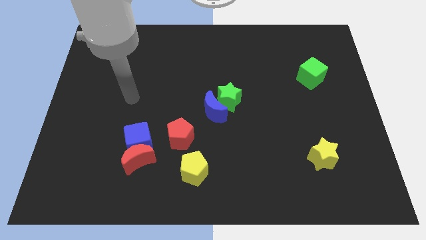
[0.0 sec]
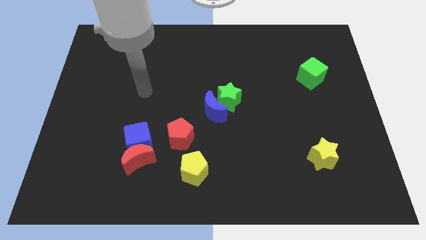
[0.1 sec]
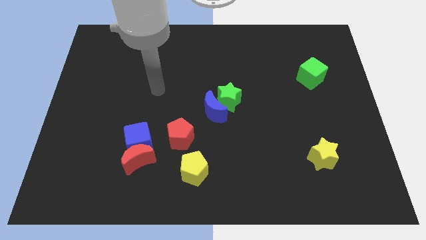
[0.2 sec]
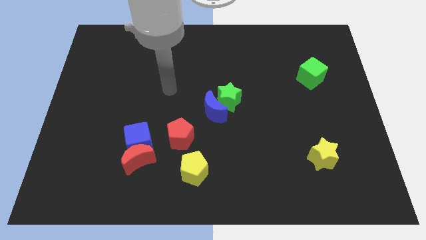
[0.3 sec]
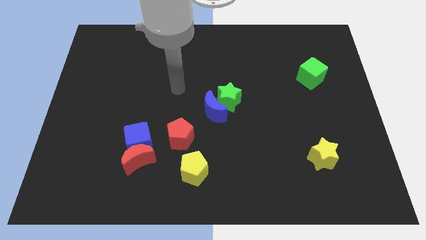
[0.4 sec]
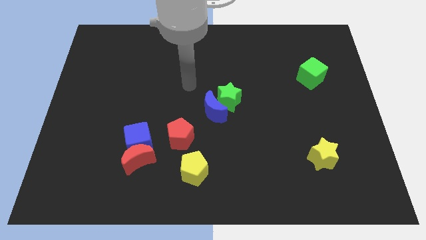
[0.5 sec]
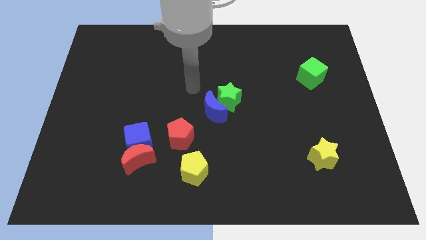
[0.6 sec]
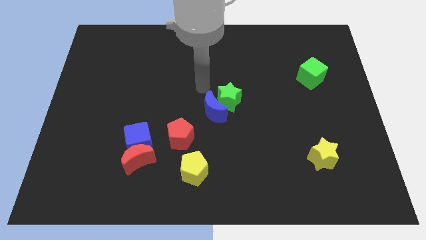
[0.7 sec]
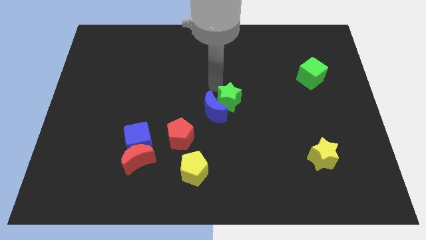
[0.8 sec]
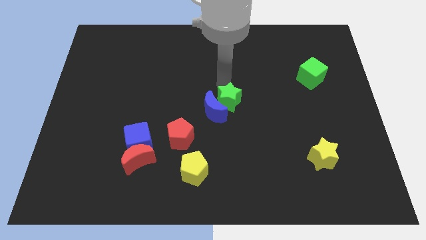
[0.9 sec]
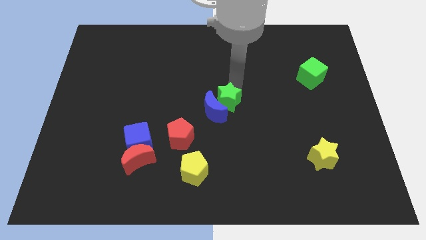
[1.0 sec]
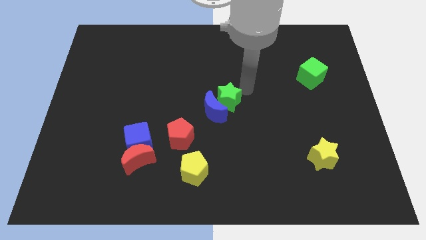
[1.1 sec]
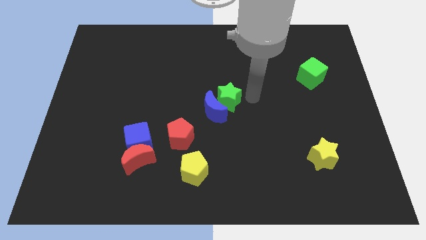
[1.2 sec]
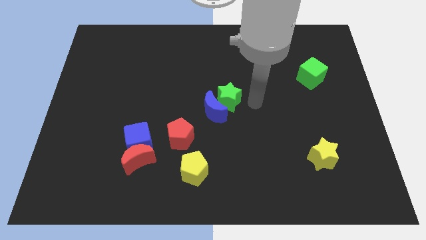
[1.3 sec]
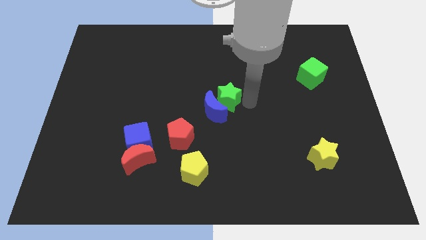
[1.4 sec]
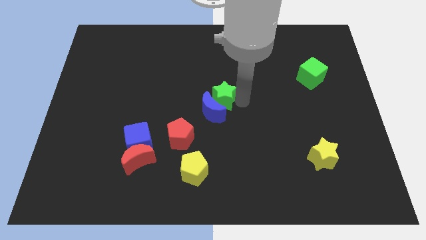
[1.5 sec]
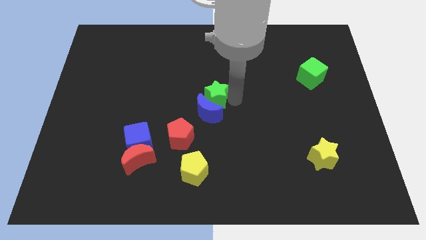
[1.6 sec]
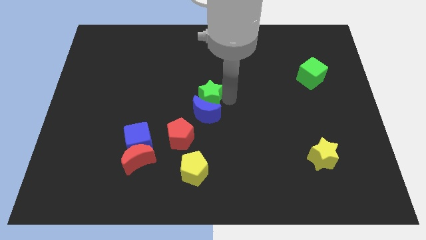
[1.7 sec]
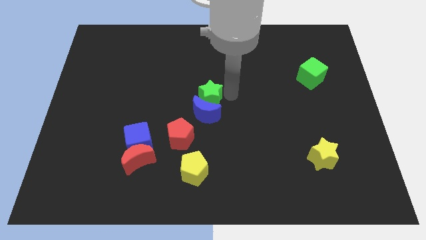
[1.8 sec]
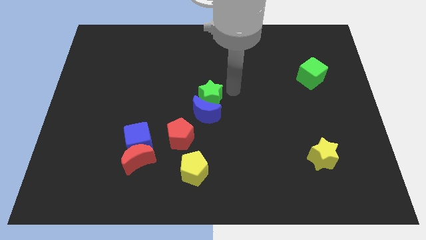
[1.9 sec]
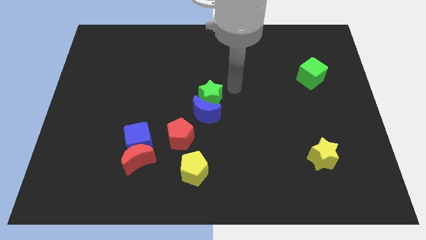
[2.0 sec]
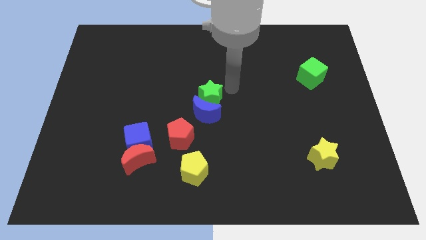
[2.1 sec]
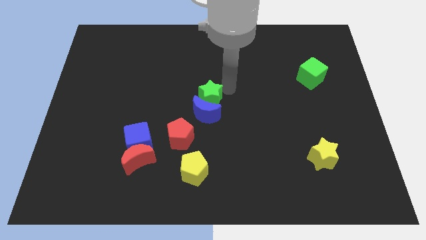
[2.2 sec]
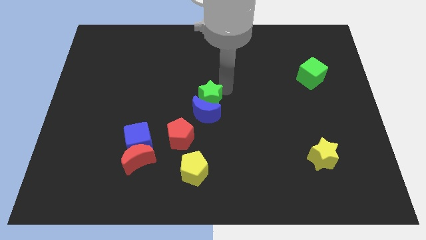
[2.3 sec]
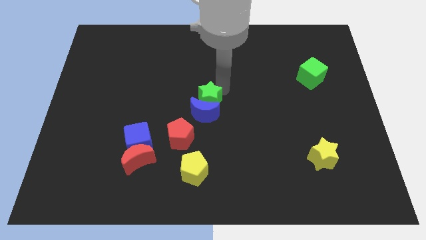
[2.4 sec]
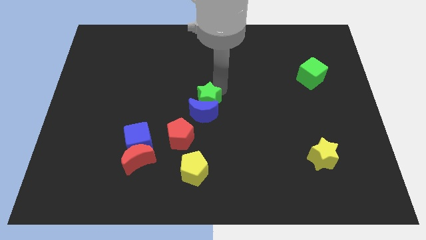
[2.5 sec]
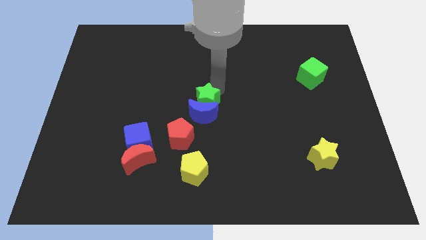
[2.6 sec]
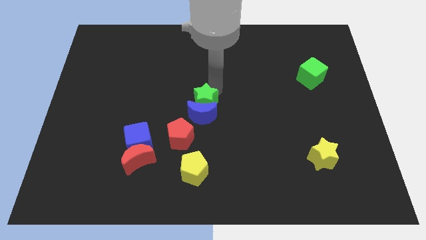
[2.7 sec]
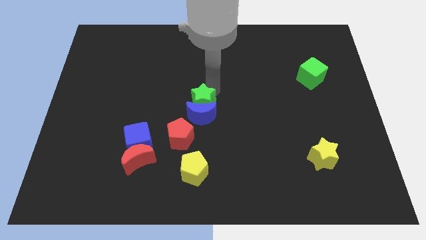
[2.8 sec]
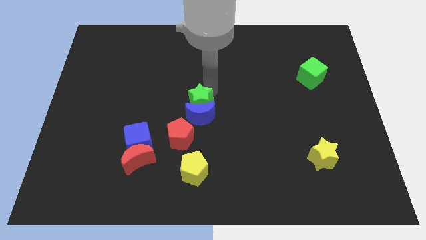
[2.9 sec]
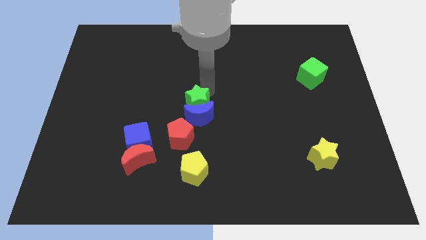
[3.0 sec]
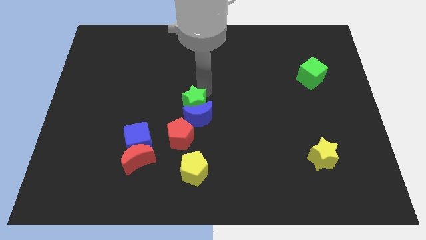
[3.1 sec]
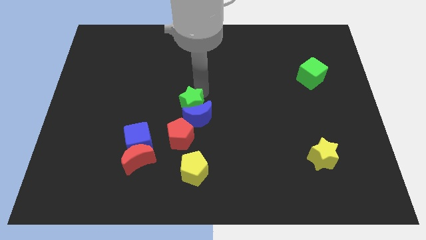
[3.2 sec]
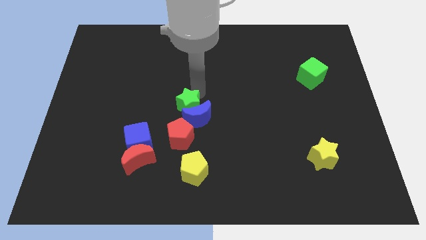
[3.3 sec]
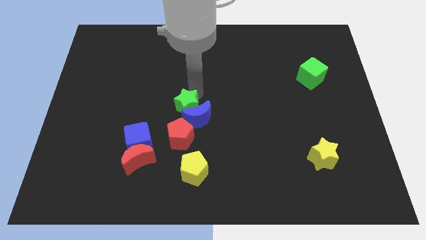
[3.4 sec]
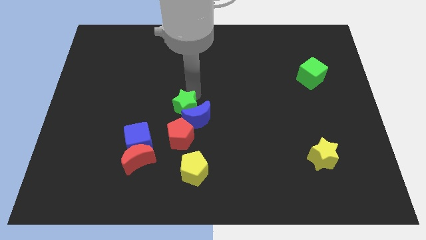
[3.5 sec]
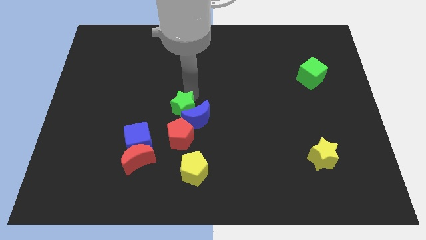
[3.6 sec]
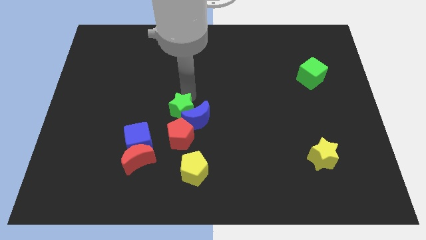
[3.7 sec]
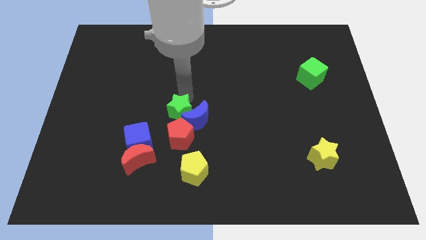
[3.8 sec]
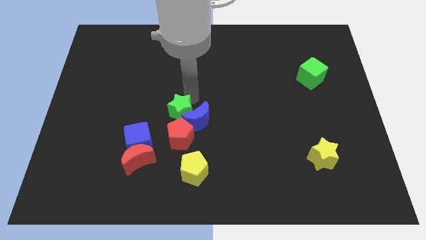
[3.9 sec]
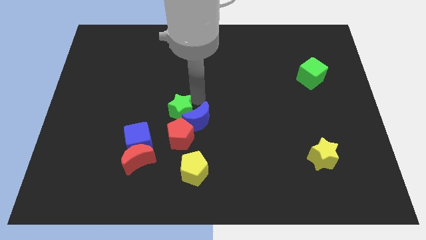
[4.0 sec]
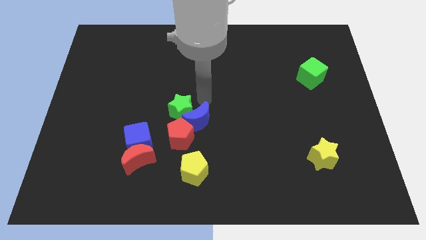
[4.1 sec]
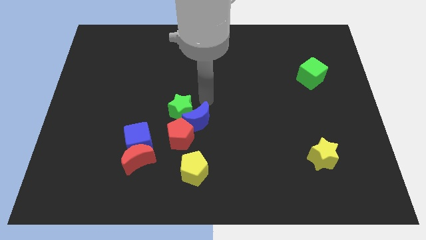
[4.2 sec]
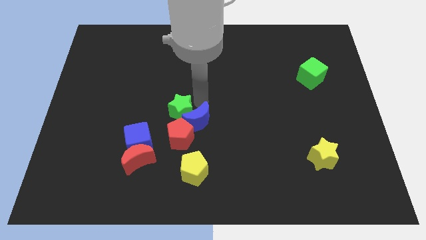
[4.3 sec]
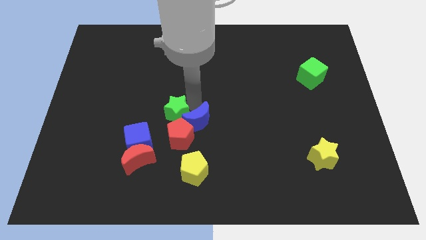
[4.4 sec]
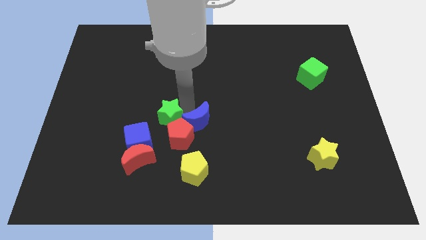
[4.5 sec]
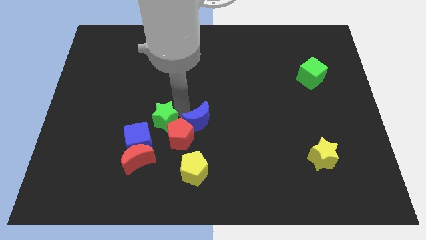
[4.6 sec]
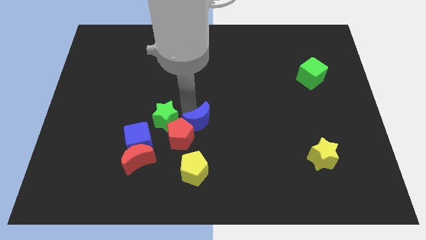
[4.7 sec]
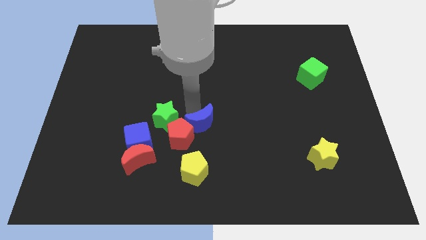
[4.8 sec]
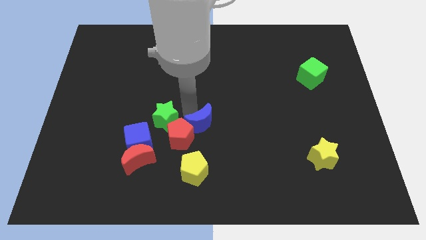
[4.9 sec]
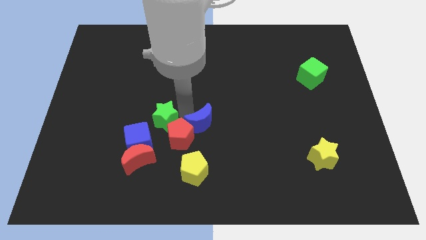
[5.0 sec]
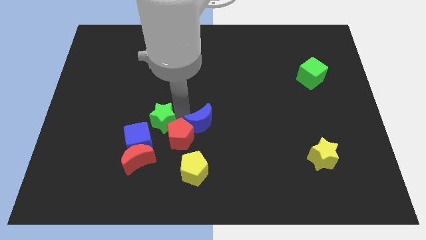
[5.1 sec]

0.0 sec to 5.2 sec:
move the green star to the left side of the red pentagon

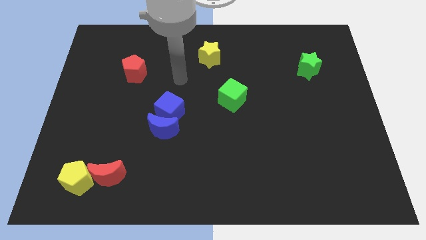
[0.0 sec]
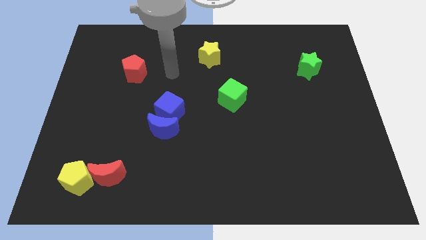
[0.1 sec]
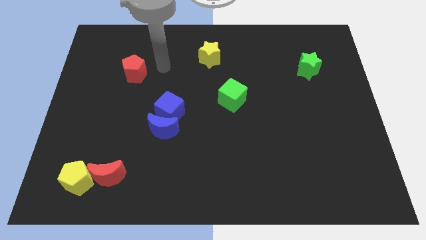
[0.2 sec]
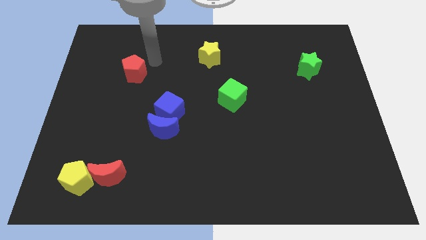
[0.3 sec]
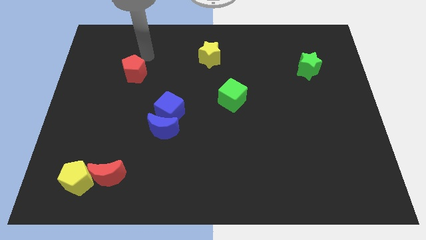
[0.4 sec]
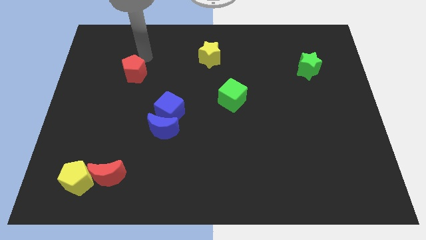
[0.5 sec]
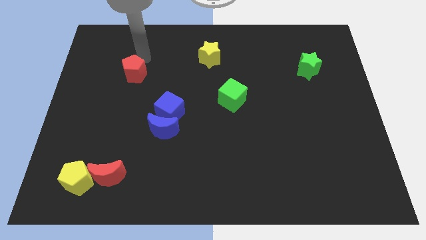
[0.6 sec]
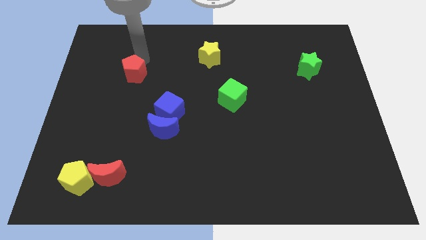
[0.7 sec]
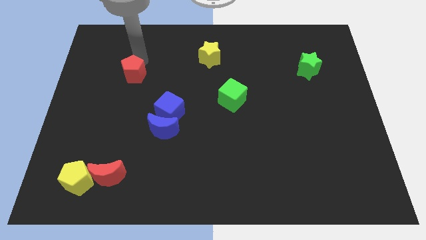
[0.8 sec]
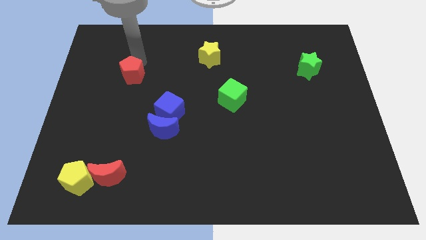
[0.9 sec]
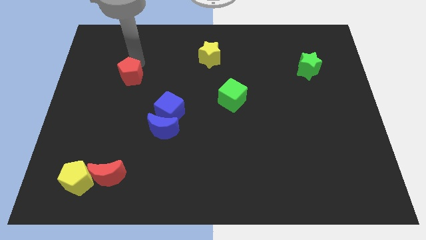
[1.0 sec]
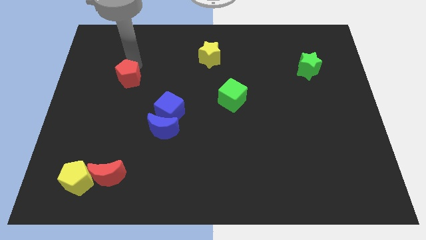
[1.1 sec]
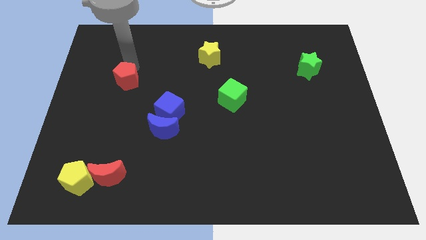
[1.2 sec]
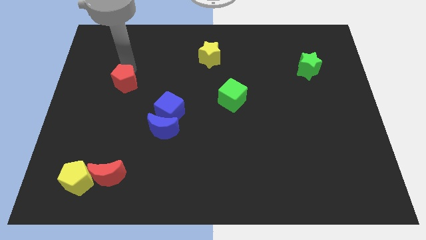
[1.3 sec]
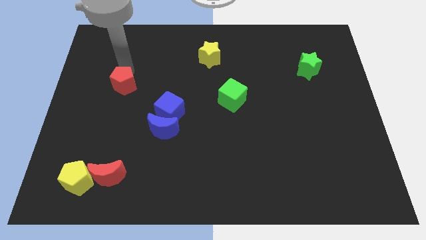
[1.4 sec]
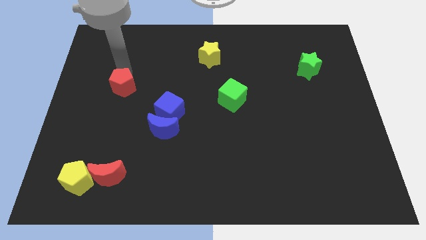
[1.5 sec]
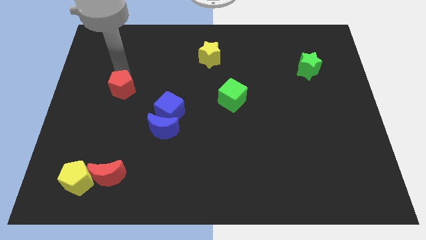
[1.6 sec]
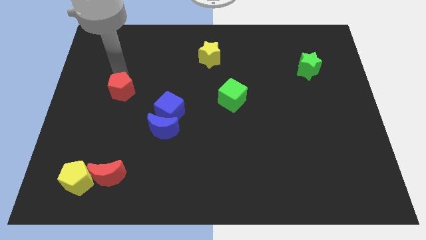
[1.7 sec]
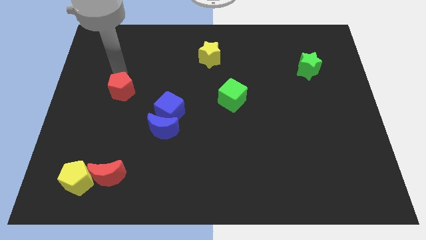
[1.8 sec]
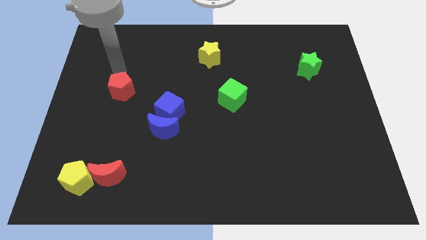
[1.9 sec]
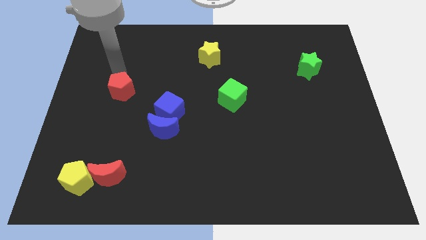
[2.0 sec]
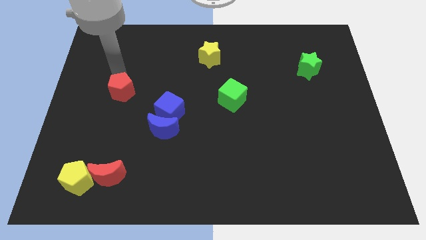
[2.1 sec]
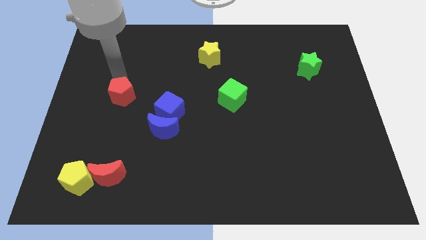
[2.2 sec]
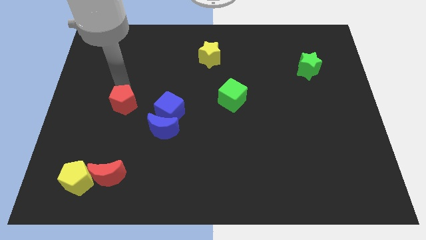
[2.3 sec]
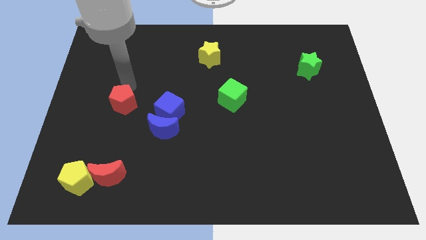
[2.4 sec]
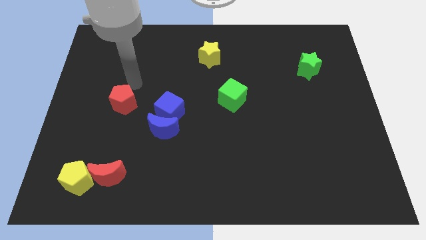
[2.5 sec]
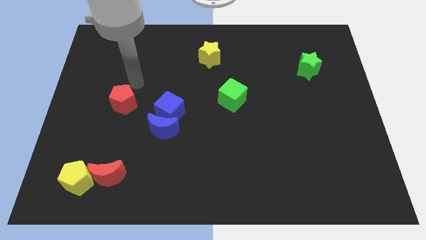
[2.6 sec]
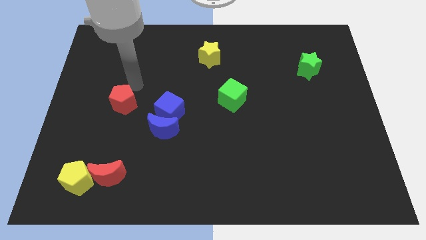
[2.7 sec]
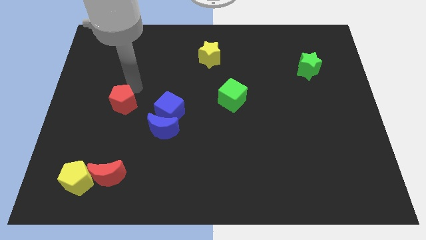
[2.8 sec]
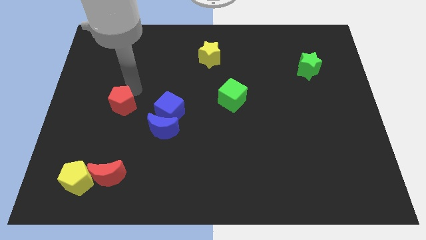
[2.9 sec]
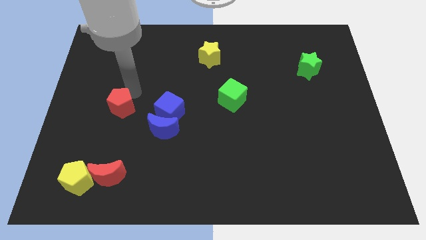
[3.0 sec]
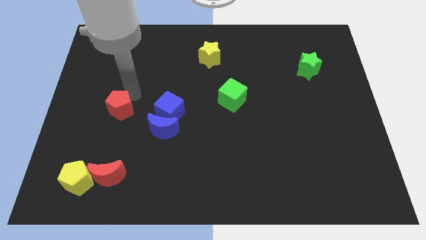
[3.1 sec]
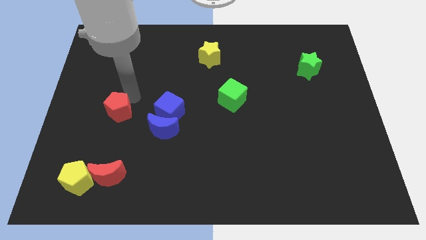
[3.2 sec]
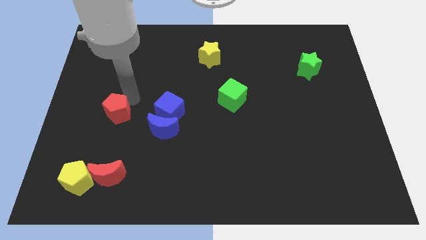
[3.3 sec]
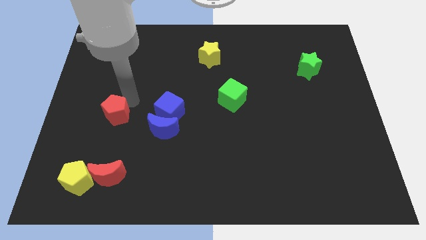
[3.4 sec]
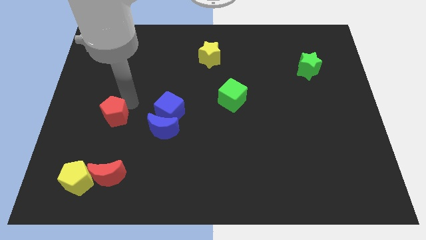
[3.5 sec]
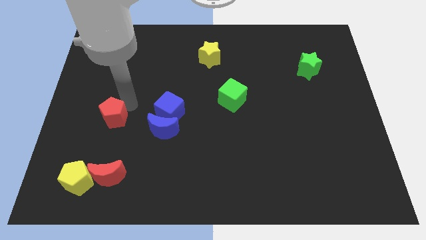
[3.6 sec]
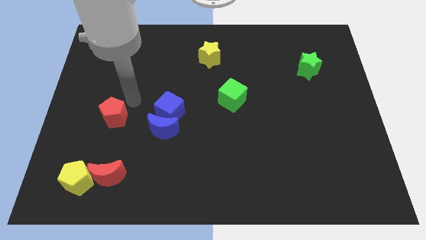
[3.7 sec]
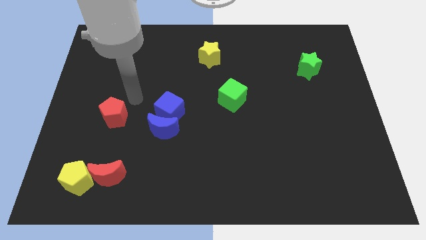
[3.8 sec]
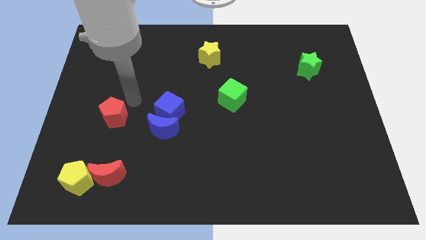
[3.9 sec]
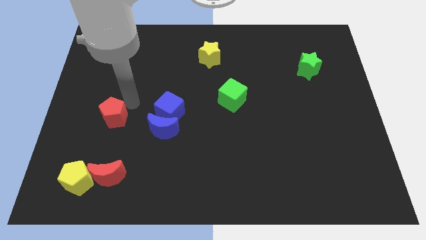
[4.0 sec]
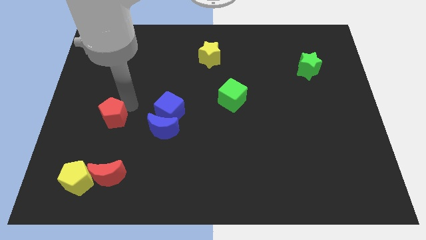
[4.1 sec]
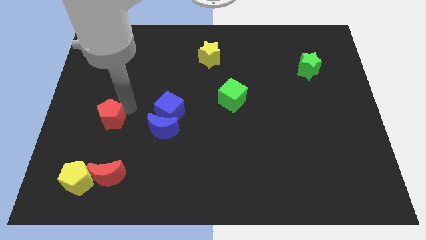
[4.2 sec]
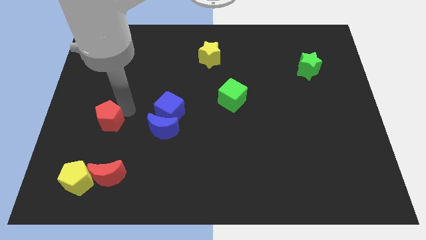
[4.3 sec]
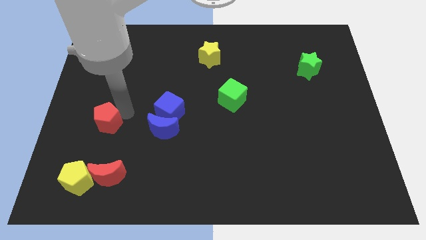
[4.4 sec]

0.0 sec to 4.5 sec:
put the red pentagon above the yellow pentagon
